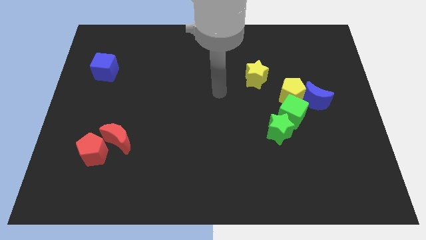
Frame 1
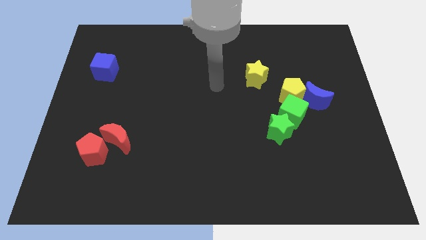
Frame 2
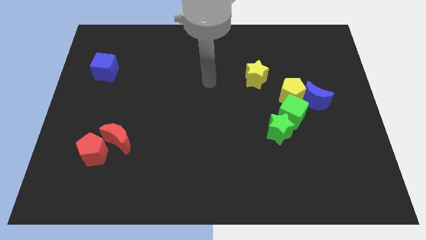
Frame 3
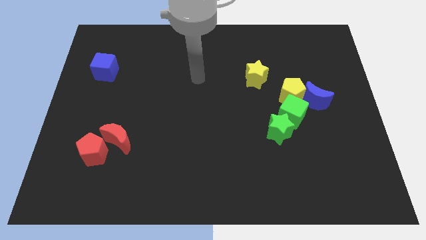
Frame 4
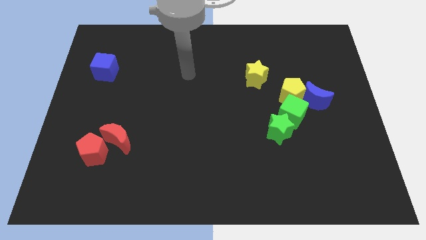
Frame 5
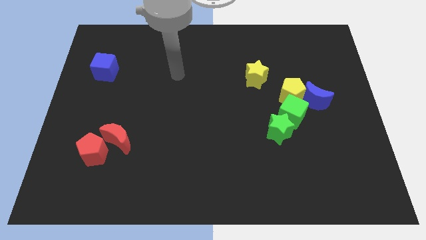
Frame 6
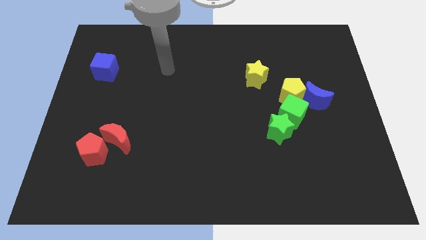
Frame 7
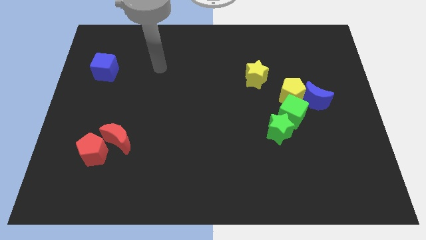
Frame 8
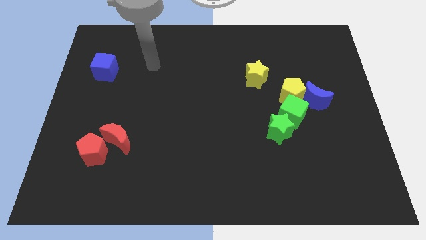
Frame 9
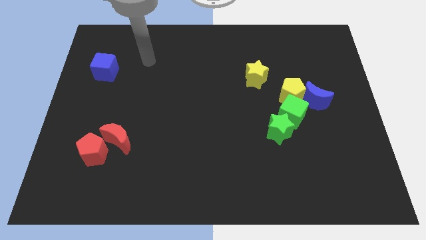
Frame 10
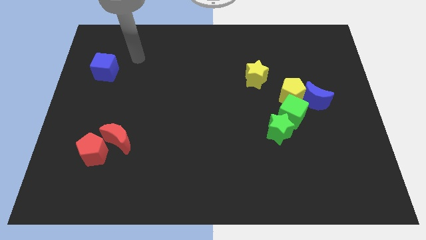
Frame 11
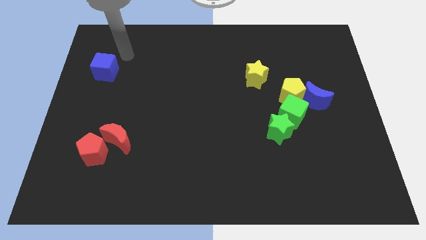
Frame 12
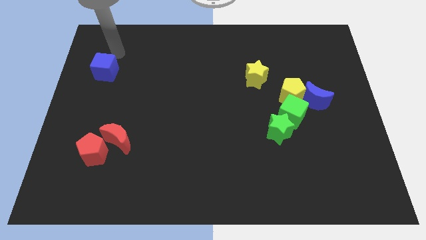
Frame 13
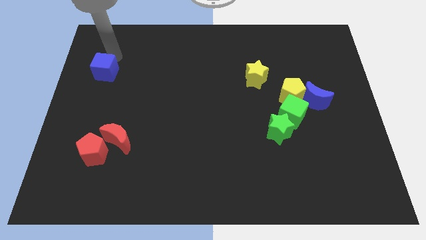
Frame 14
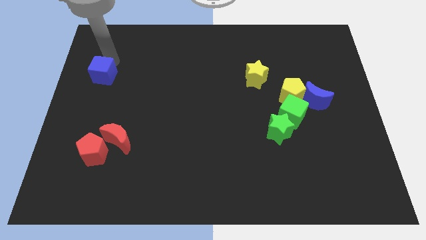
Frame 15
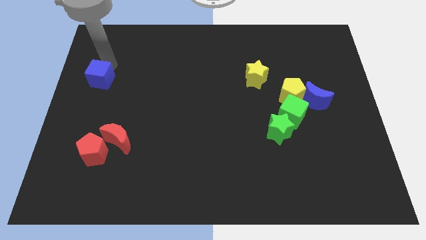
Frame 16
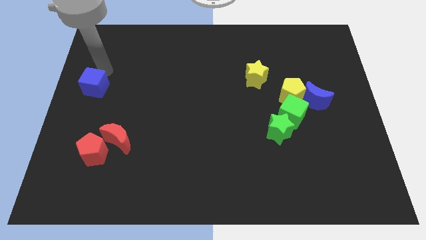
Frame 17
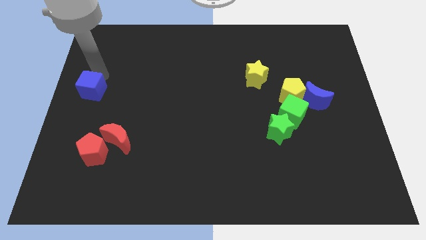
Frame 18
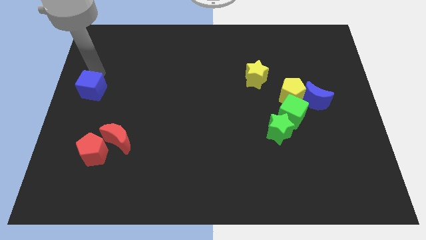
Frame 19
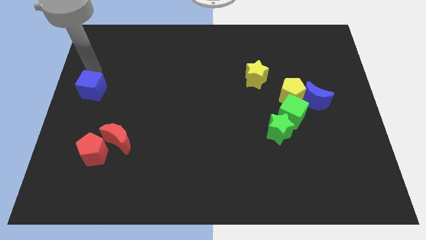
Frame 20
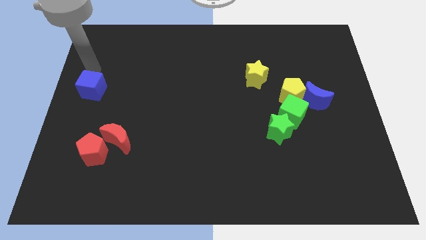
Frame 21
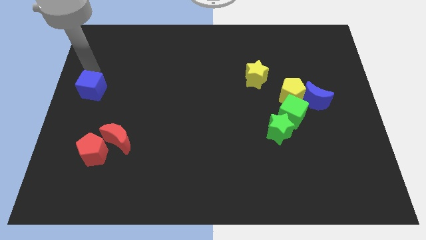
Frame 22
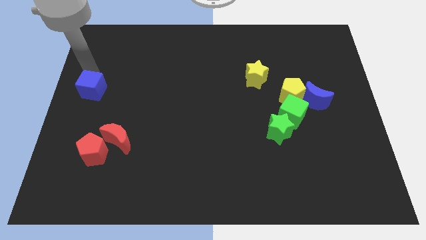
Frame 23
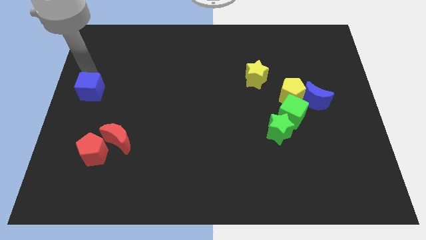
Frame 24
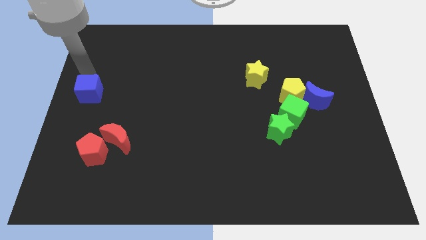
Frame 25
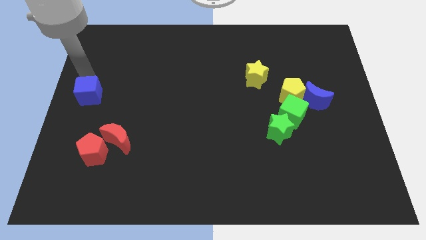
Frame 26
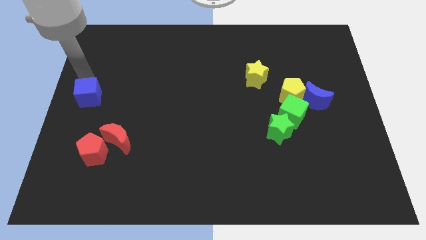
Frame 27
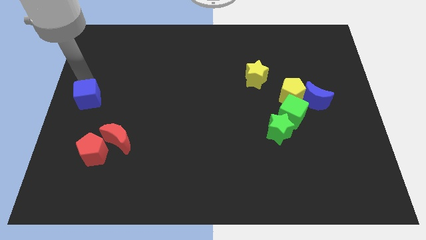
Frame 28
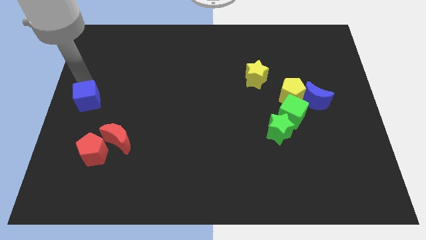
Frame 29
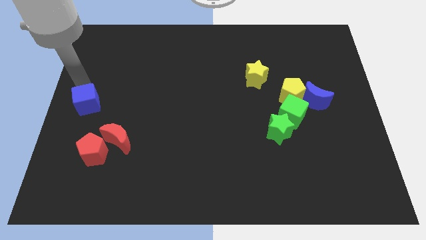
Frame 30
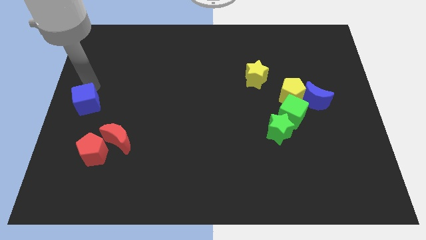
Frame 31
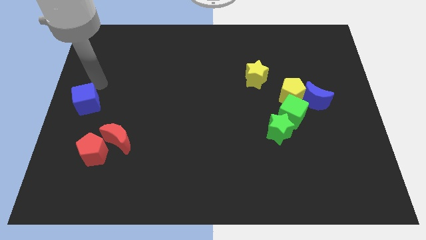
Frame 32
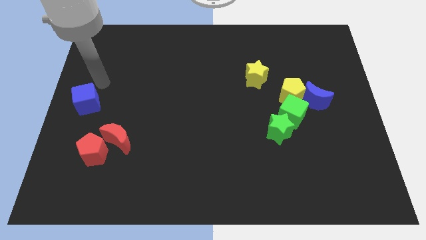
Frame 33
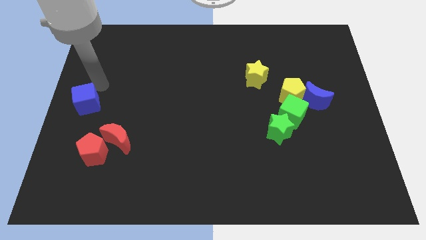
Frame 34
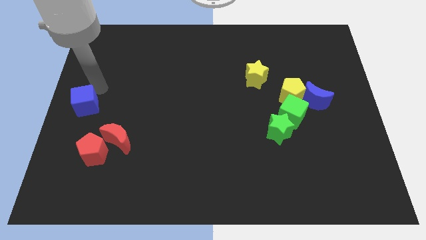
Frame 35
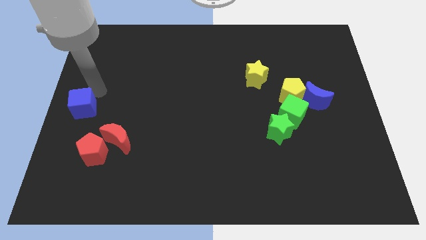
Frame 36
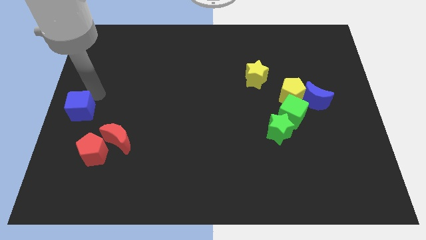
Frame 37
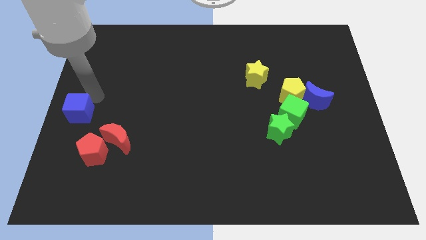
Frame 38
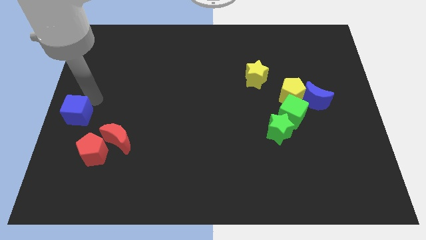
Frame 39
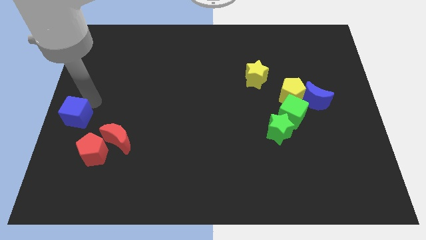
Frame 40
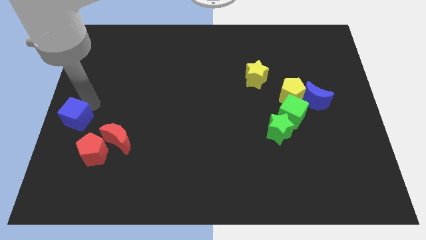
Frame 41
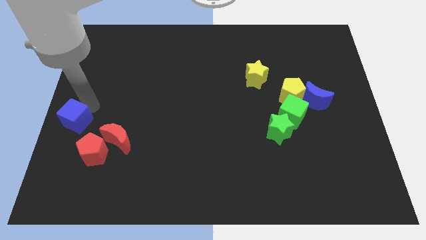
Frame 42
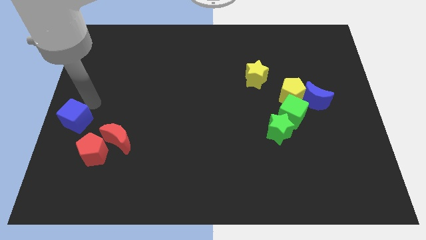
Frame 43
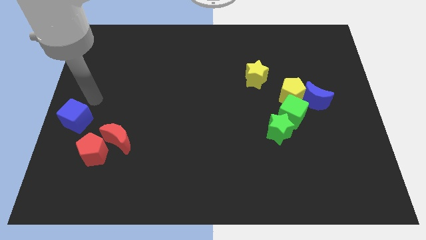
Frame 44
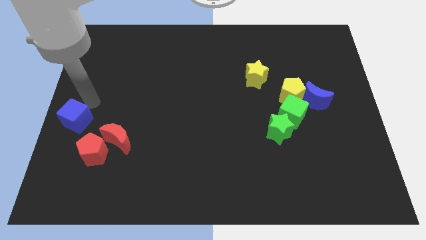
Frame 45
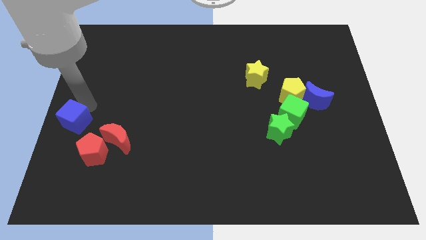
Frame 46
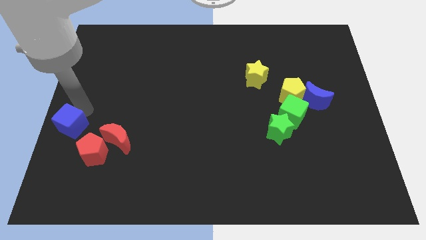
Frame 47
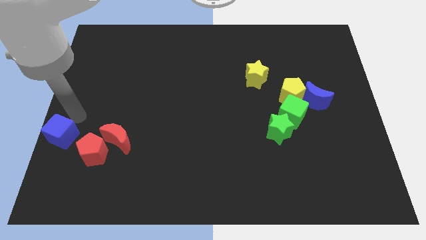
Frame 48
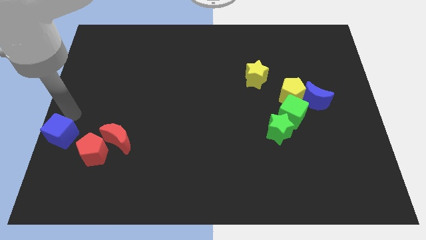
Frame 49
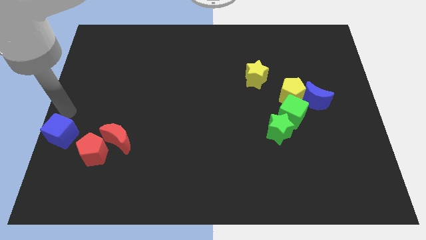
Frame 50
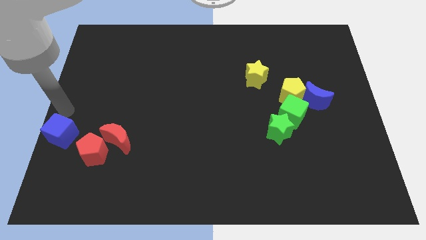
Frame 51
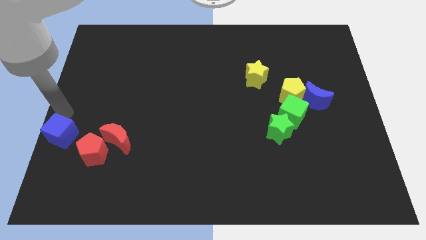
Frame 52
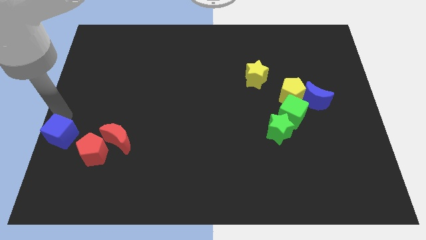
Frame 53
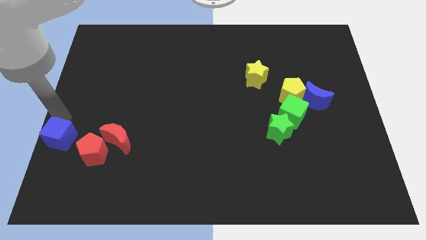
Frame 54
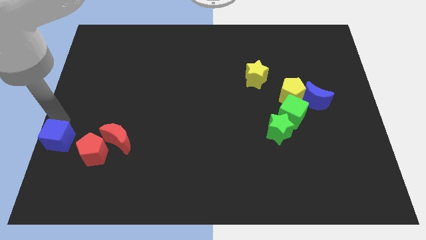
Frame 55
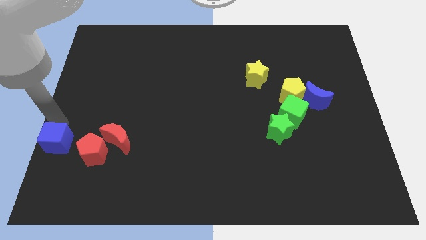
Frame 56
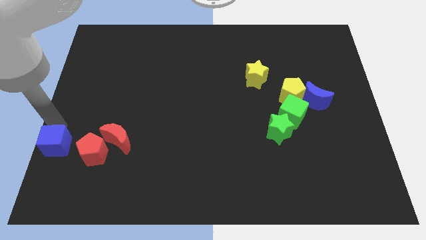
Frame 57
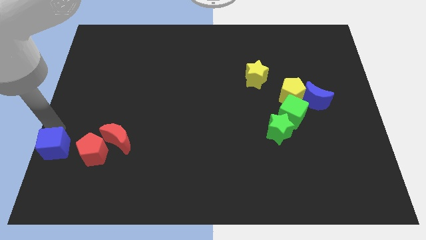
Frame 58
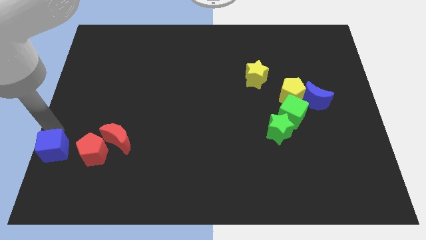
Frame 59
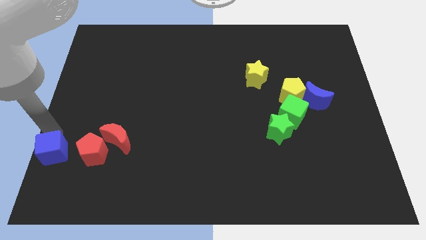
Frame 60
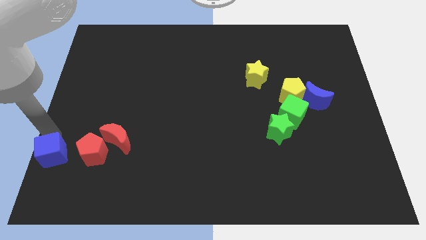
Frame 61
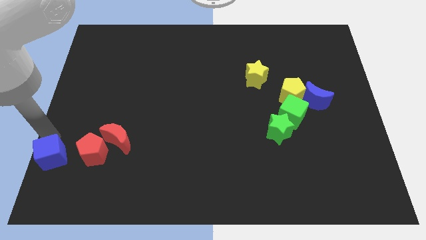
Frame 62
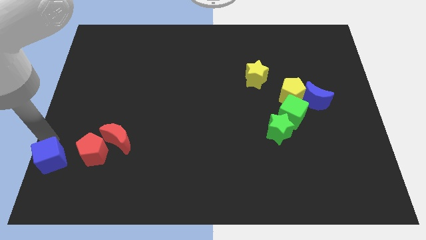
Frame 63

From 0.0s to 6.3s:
slide the blue cube to the bottom left of the board

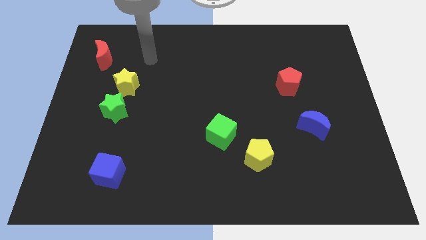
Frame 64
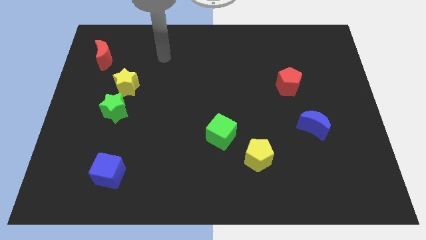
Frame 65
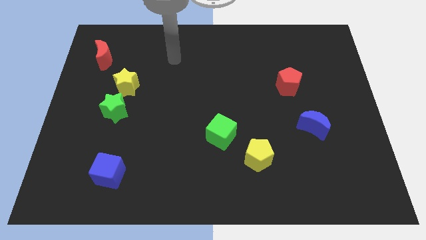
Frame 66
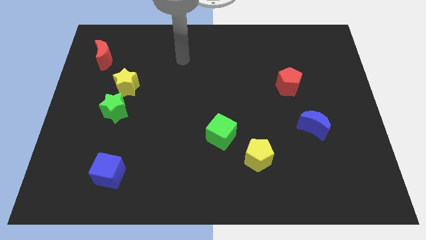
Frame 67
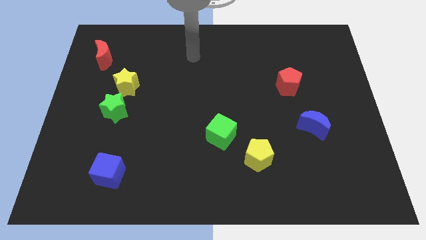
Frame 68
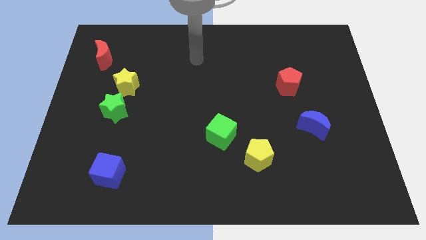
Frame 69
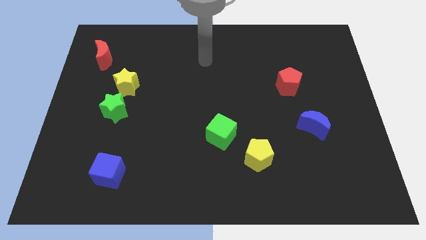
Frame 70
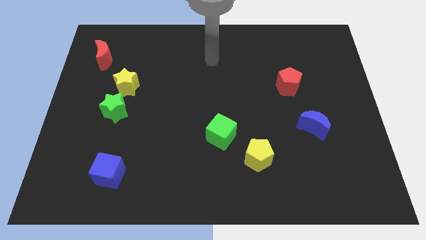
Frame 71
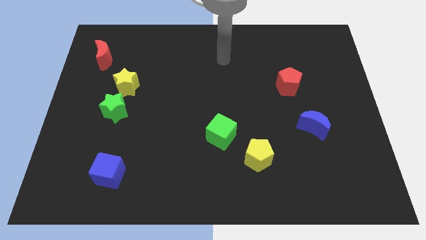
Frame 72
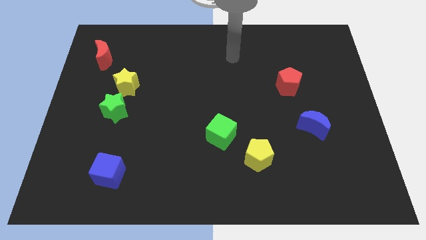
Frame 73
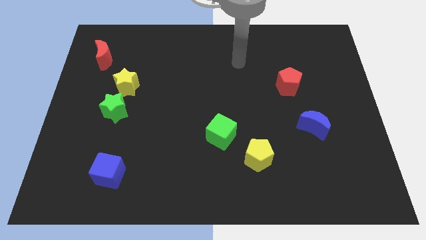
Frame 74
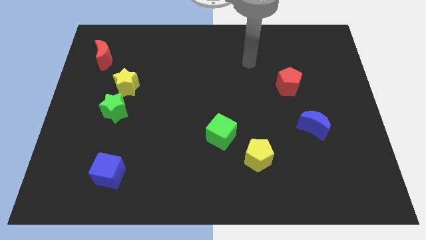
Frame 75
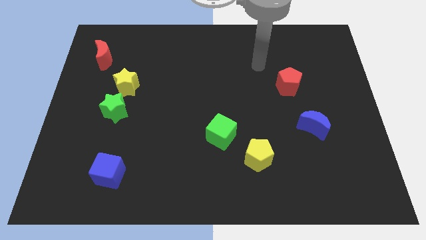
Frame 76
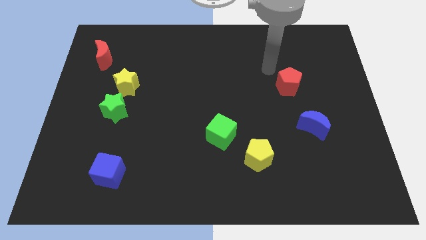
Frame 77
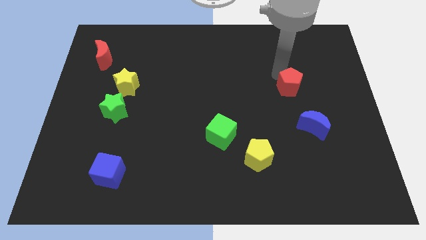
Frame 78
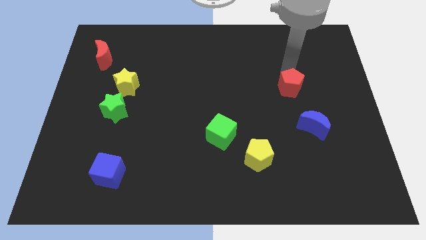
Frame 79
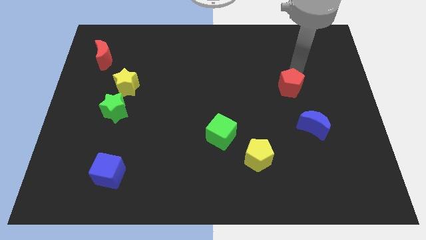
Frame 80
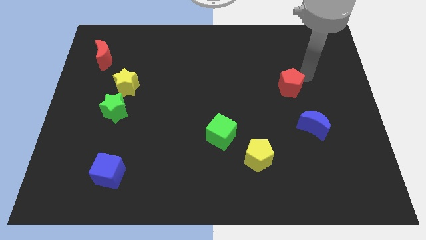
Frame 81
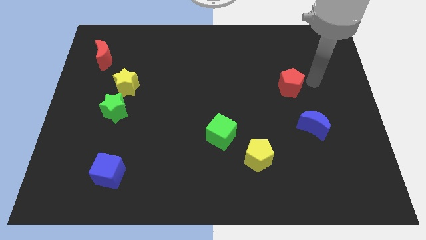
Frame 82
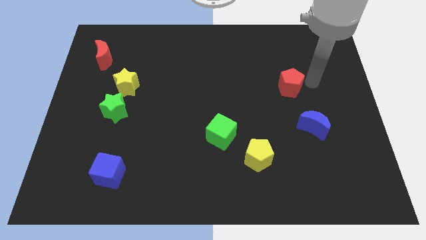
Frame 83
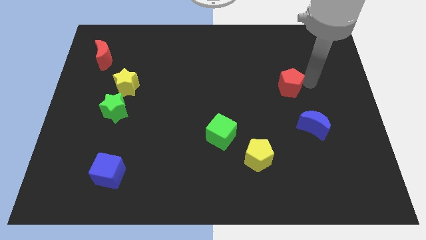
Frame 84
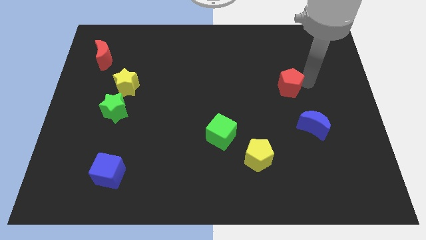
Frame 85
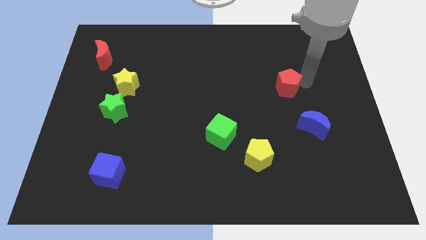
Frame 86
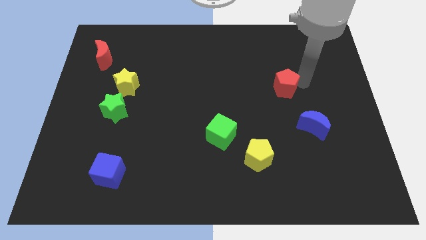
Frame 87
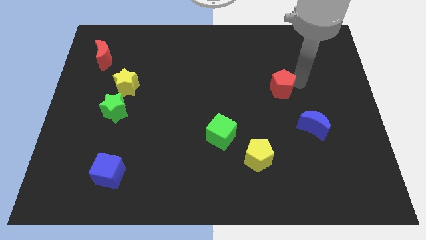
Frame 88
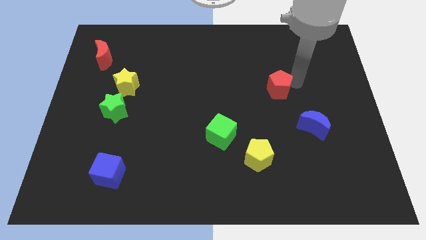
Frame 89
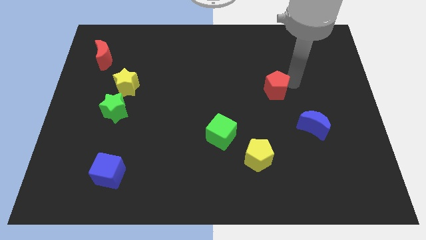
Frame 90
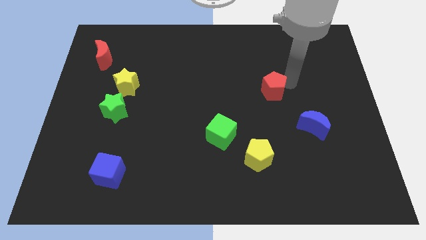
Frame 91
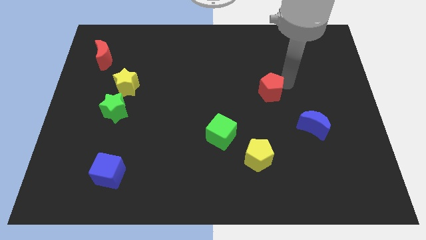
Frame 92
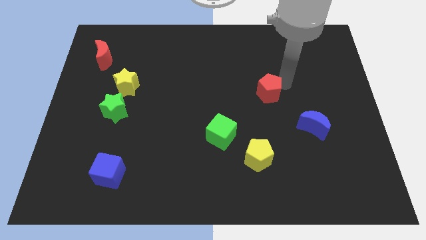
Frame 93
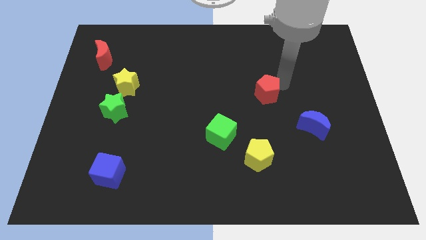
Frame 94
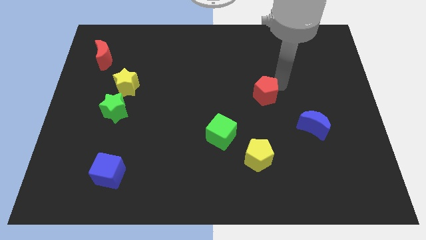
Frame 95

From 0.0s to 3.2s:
put the red pentagon to the middle of the board
